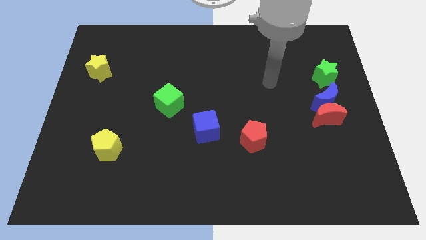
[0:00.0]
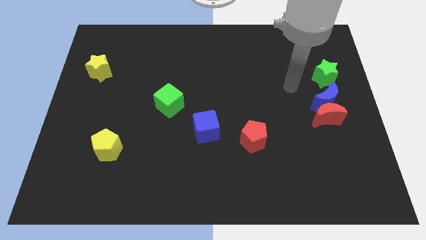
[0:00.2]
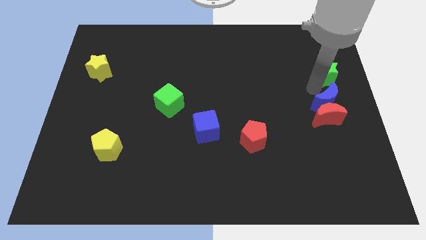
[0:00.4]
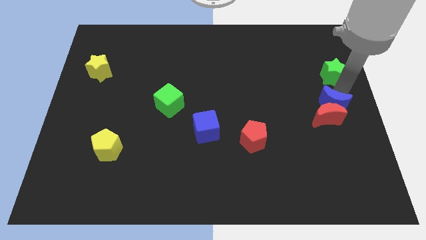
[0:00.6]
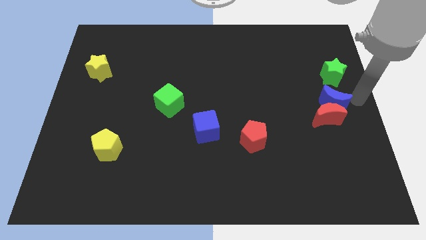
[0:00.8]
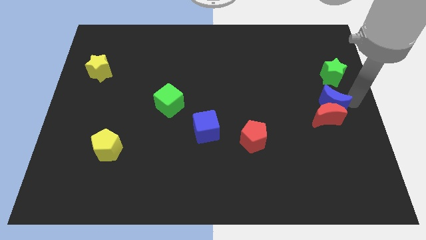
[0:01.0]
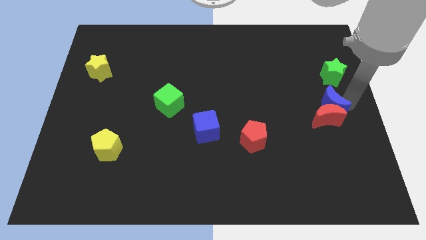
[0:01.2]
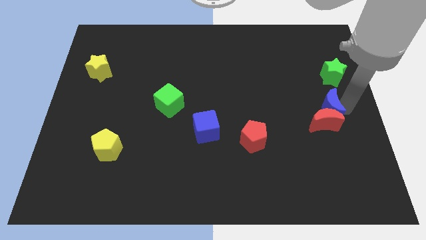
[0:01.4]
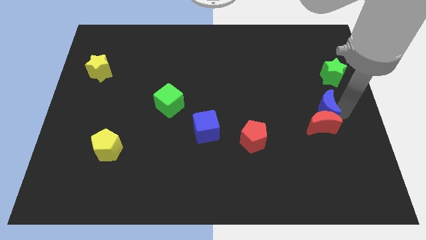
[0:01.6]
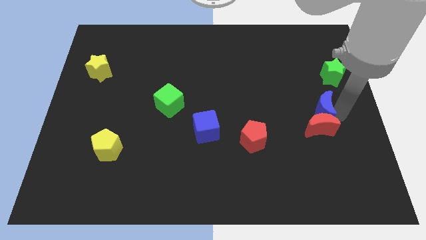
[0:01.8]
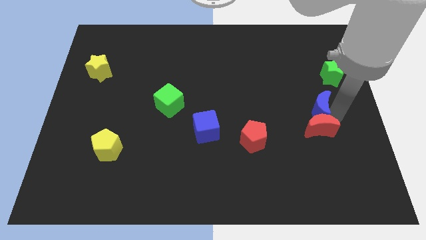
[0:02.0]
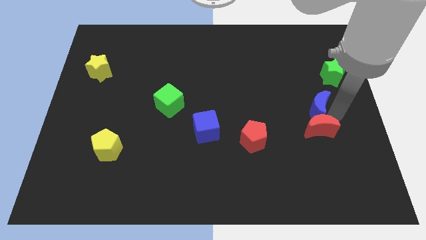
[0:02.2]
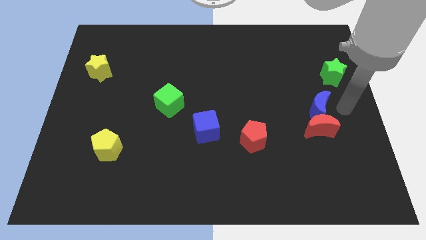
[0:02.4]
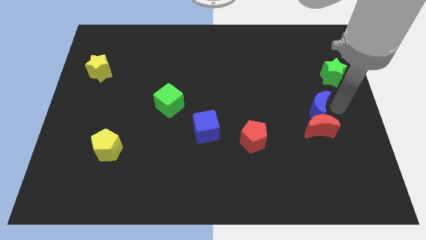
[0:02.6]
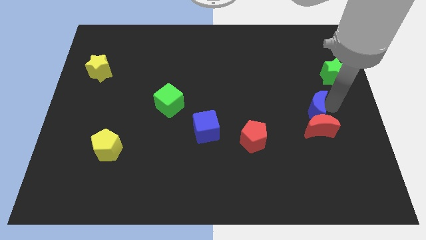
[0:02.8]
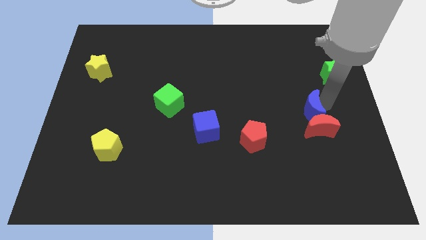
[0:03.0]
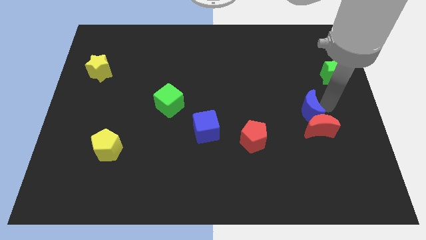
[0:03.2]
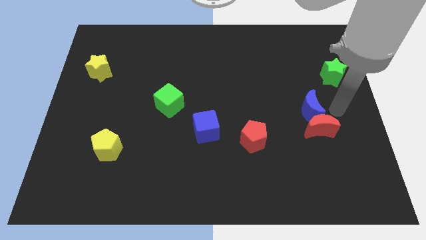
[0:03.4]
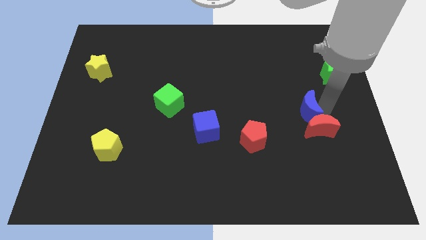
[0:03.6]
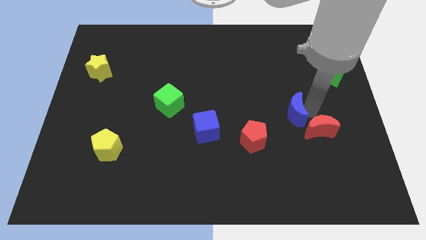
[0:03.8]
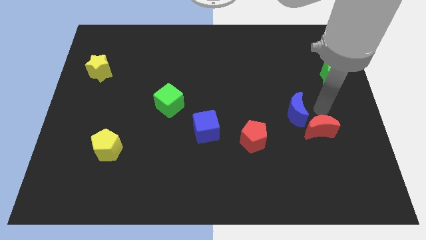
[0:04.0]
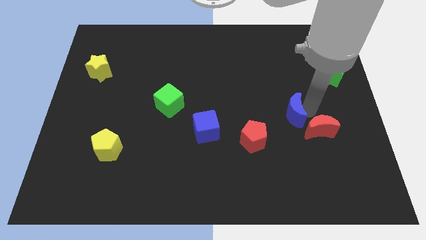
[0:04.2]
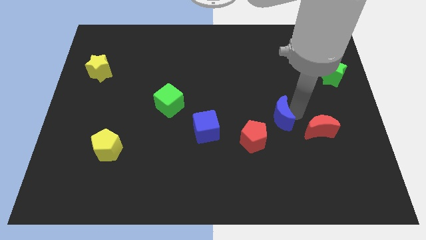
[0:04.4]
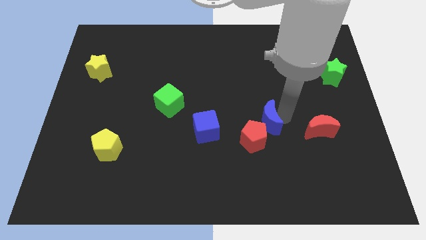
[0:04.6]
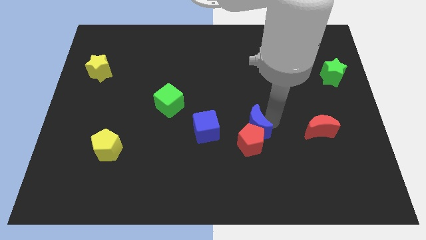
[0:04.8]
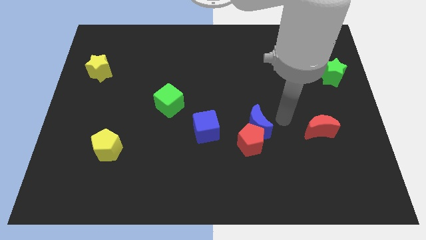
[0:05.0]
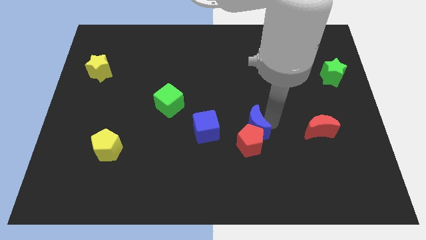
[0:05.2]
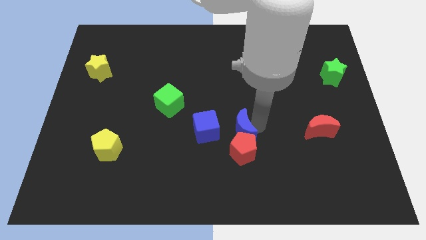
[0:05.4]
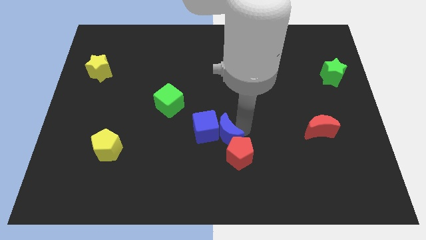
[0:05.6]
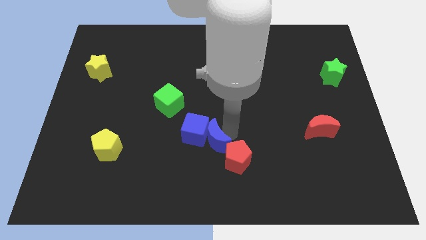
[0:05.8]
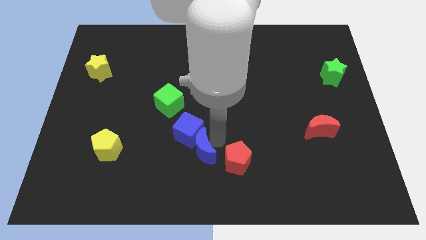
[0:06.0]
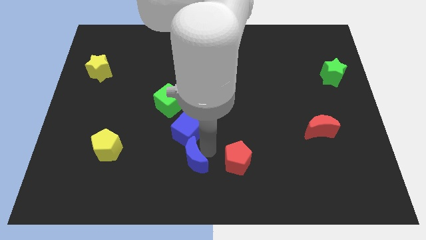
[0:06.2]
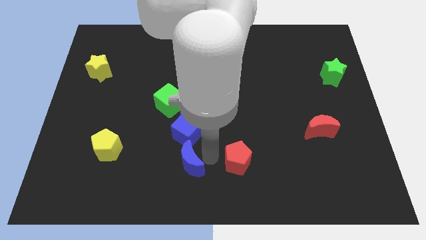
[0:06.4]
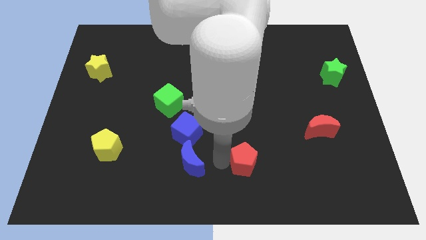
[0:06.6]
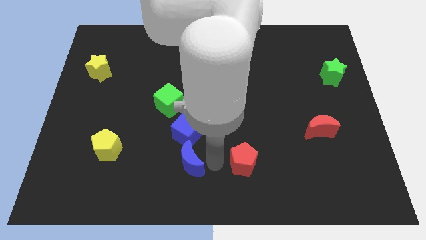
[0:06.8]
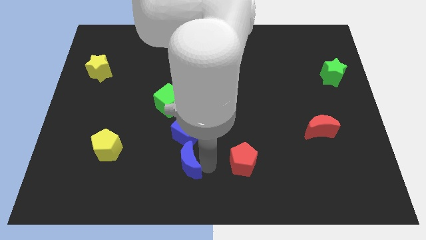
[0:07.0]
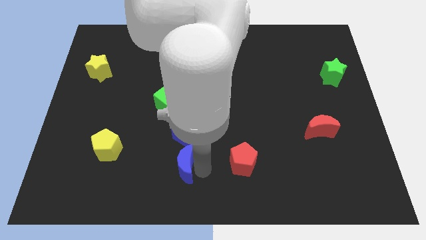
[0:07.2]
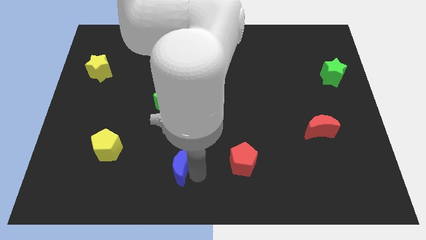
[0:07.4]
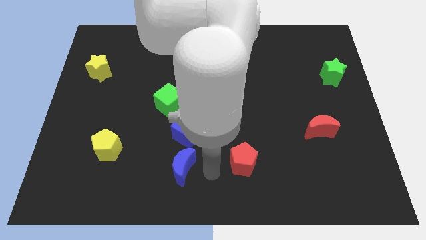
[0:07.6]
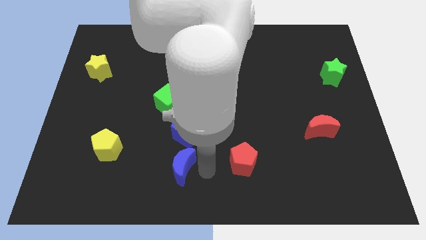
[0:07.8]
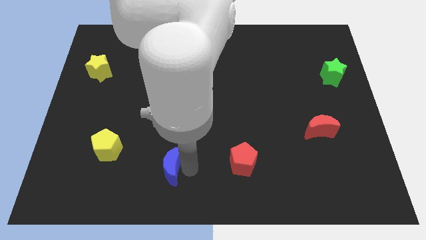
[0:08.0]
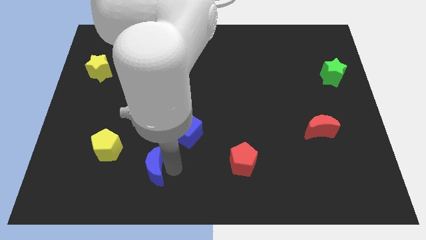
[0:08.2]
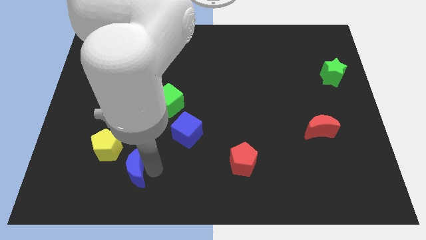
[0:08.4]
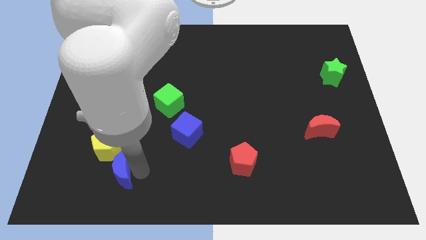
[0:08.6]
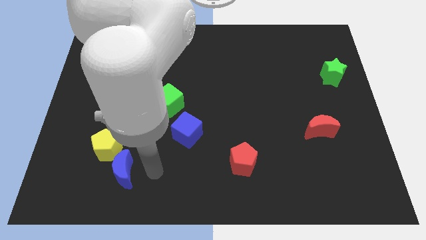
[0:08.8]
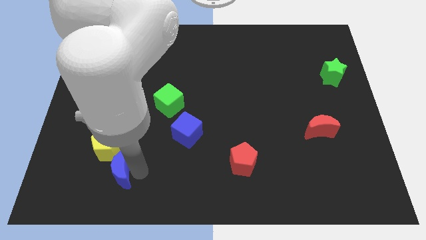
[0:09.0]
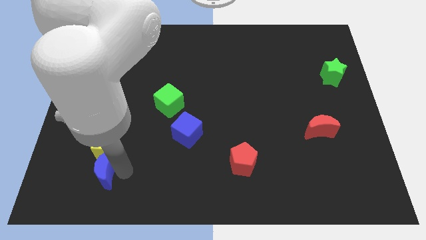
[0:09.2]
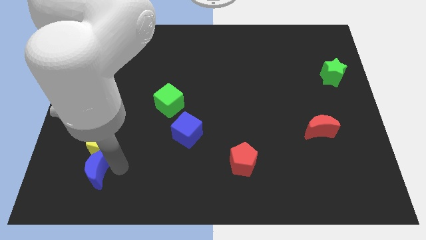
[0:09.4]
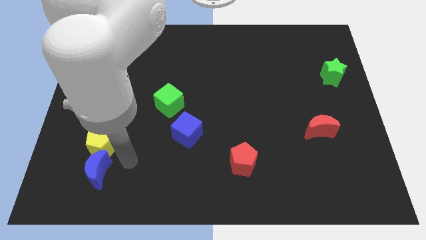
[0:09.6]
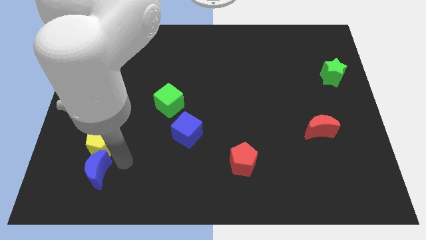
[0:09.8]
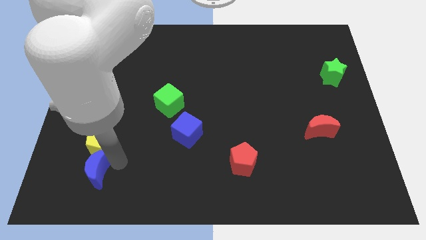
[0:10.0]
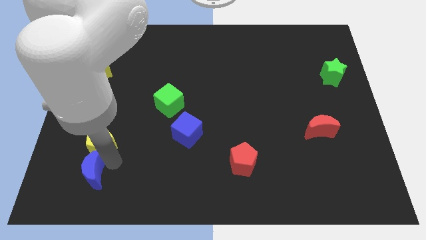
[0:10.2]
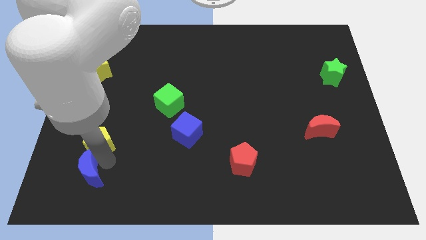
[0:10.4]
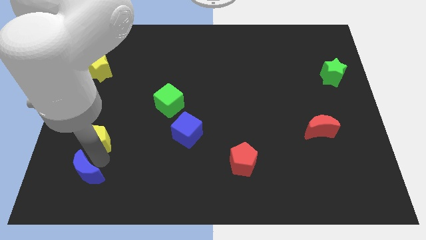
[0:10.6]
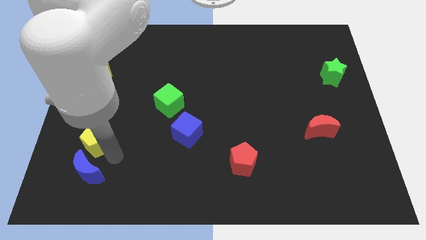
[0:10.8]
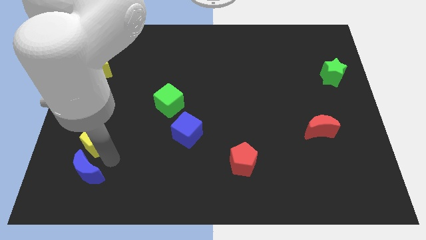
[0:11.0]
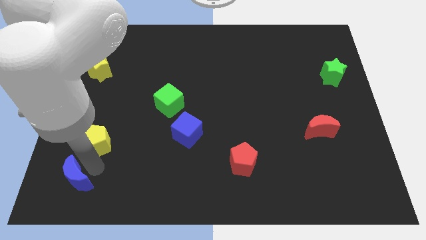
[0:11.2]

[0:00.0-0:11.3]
move the blue moon to the lower left corner

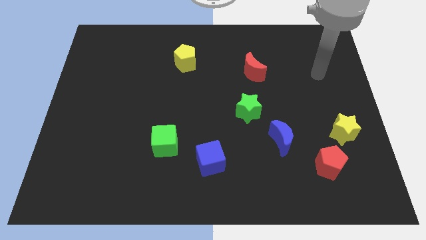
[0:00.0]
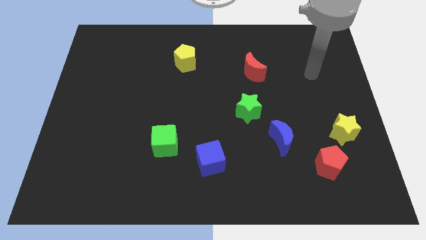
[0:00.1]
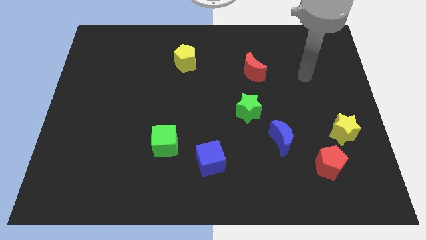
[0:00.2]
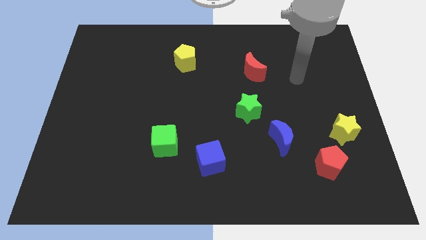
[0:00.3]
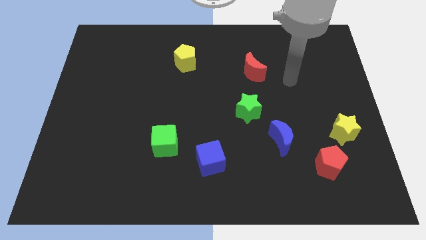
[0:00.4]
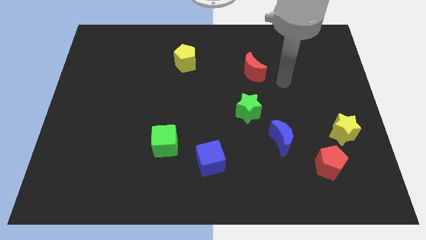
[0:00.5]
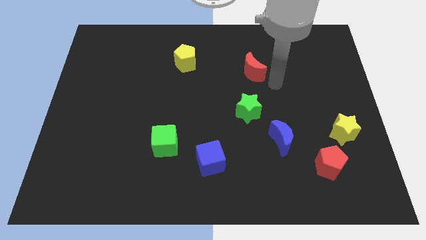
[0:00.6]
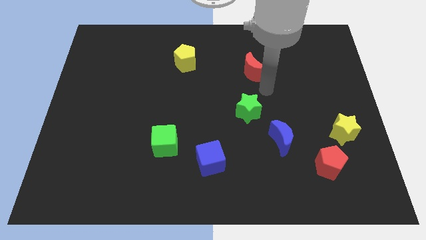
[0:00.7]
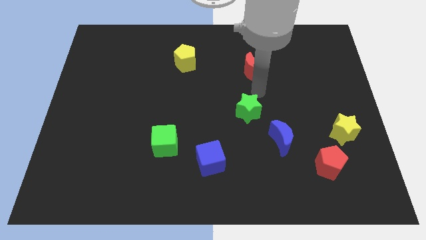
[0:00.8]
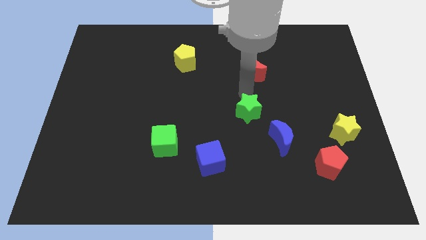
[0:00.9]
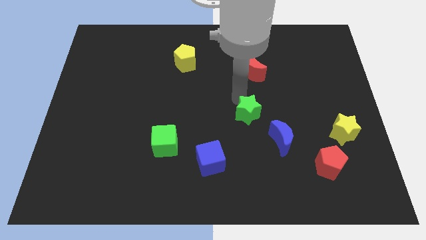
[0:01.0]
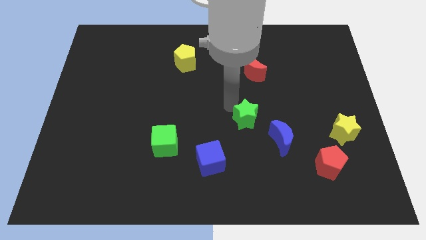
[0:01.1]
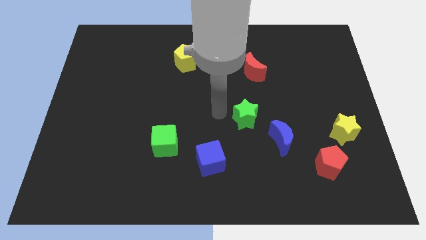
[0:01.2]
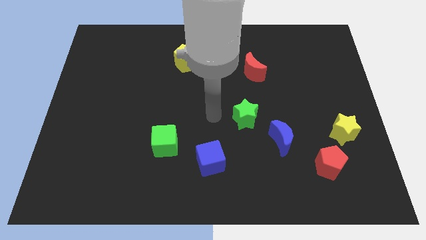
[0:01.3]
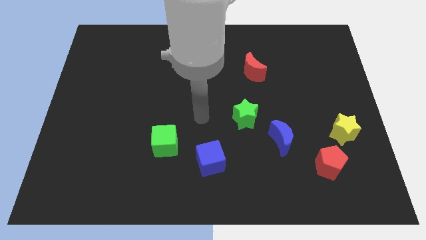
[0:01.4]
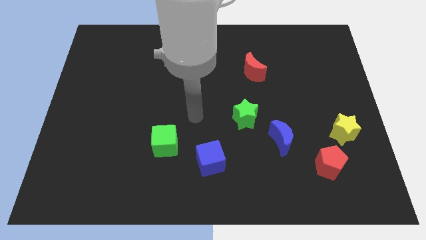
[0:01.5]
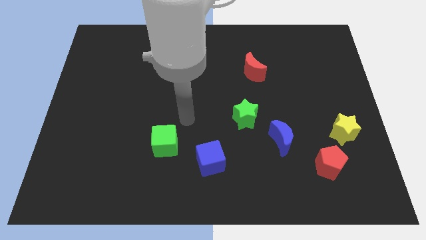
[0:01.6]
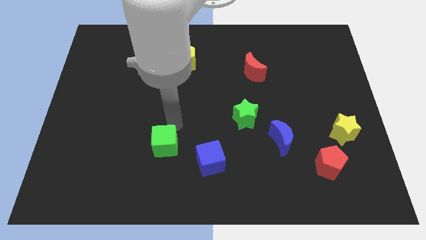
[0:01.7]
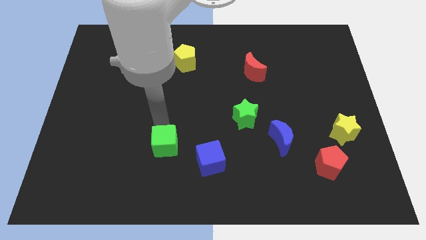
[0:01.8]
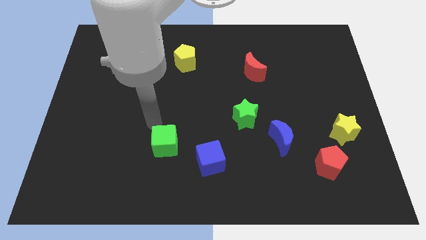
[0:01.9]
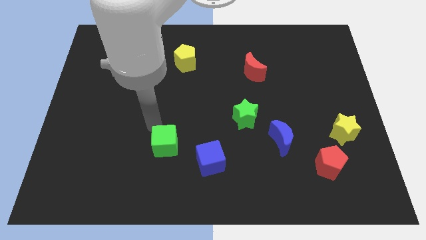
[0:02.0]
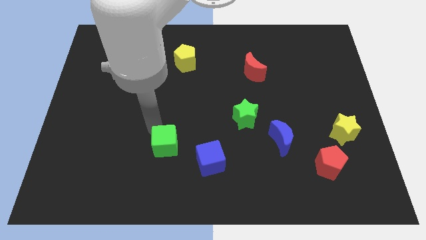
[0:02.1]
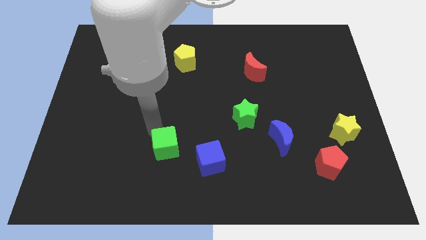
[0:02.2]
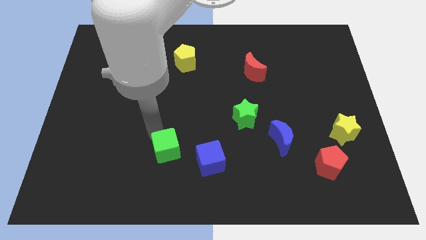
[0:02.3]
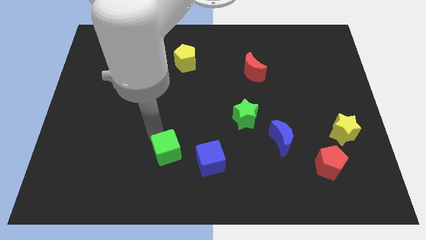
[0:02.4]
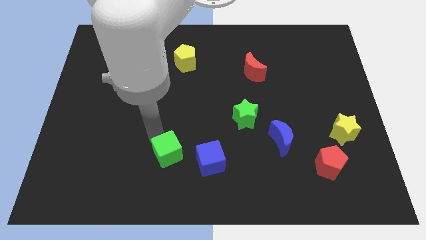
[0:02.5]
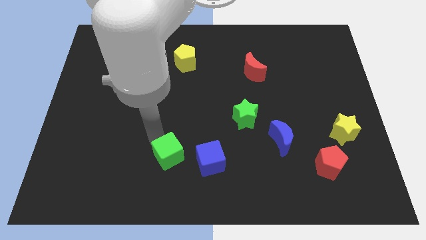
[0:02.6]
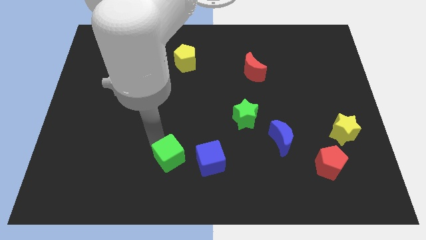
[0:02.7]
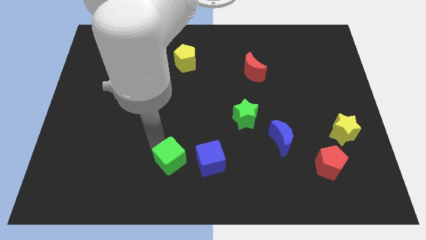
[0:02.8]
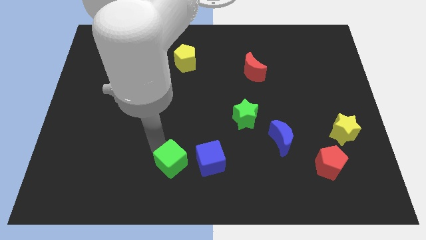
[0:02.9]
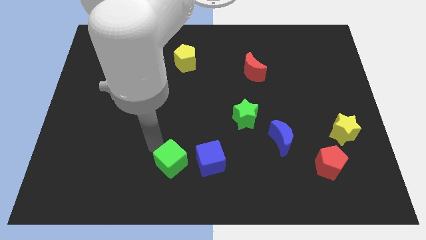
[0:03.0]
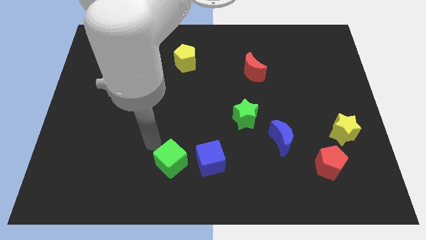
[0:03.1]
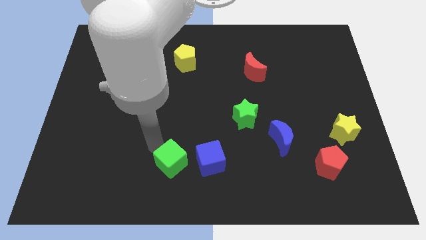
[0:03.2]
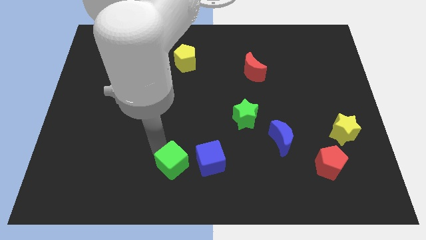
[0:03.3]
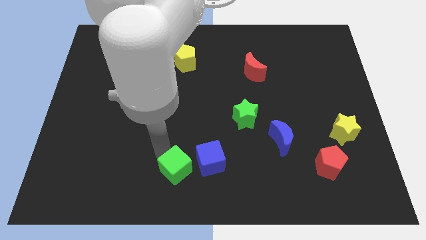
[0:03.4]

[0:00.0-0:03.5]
move the green cube to the bottom side
